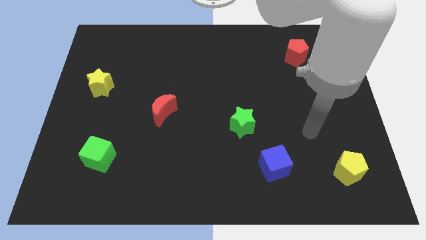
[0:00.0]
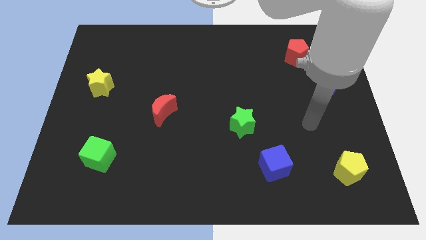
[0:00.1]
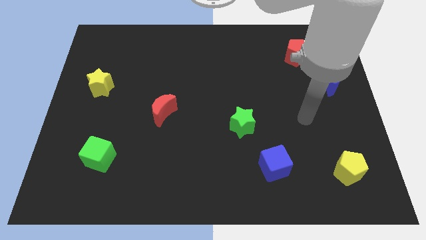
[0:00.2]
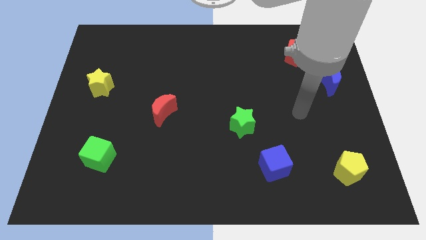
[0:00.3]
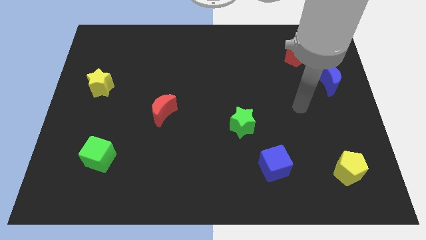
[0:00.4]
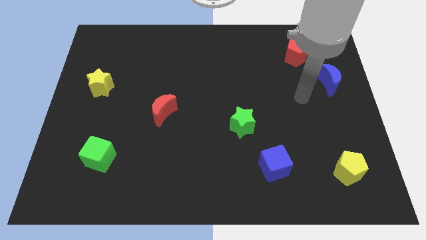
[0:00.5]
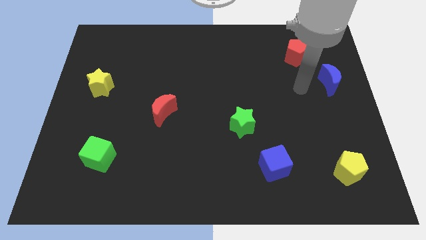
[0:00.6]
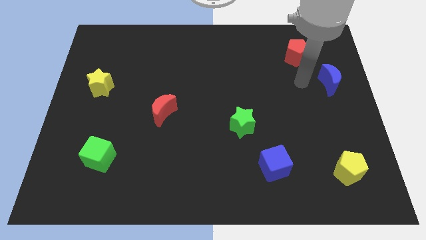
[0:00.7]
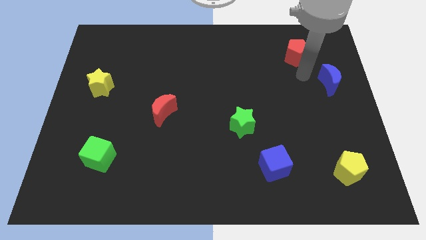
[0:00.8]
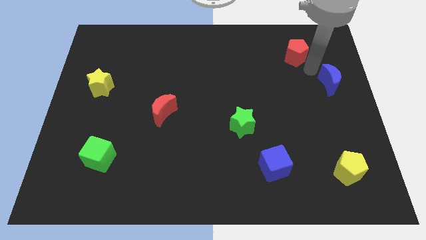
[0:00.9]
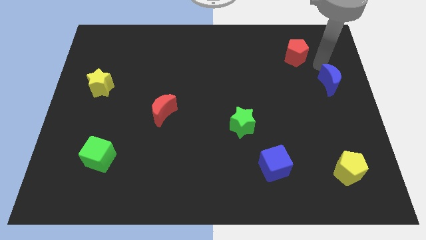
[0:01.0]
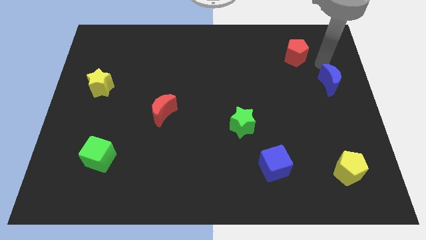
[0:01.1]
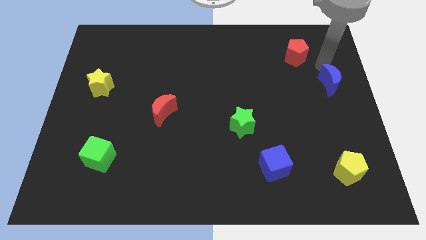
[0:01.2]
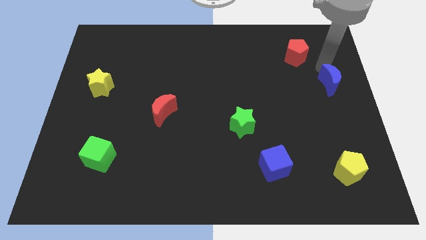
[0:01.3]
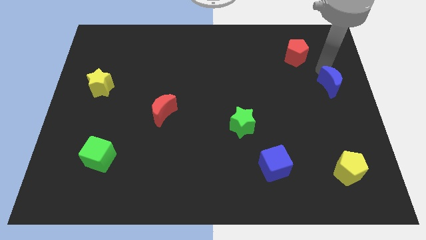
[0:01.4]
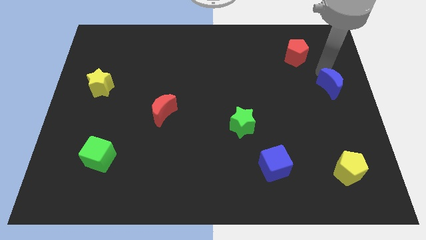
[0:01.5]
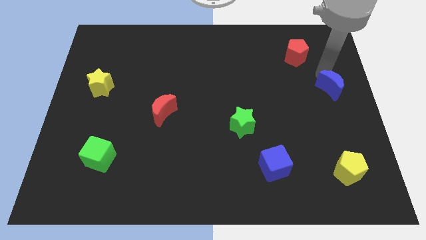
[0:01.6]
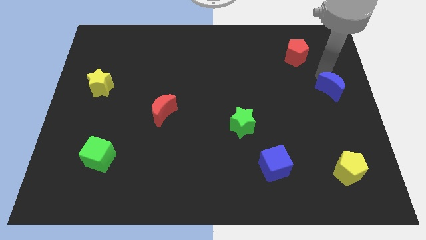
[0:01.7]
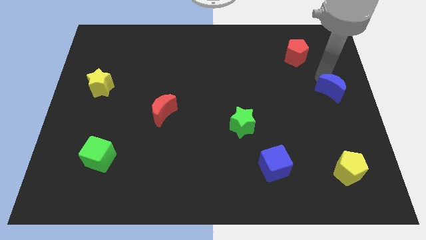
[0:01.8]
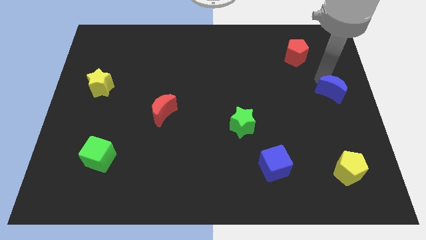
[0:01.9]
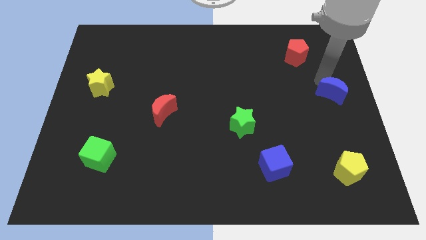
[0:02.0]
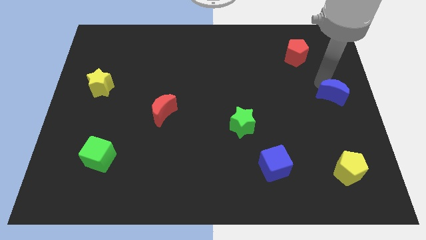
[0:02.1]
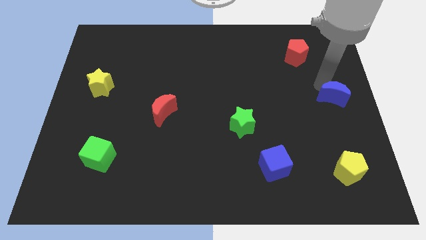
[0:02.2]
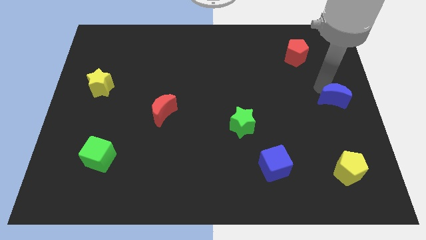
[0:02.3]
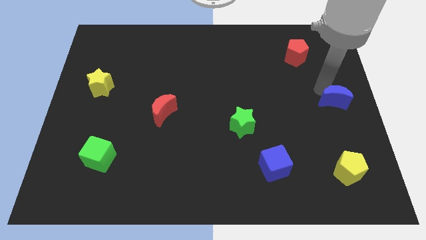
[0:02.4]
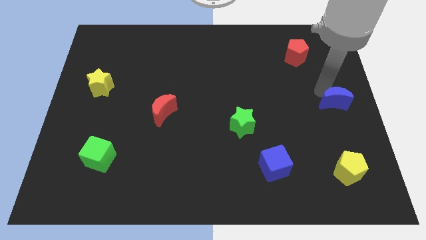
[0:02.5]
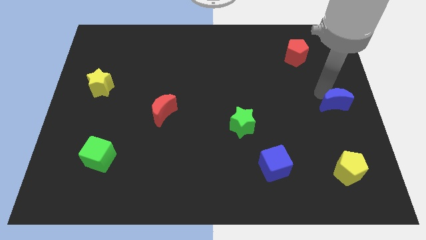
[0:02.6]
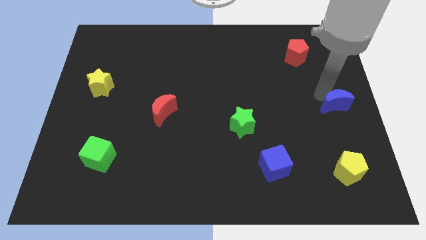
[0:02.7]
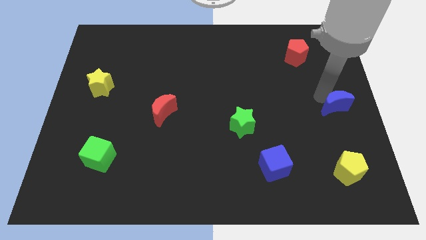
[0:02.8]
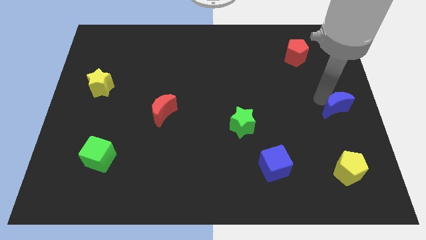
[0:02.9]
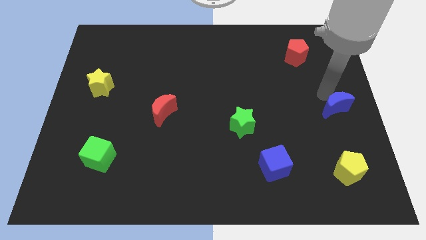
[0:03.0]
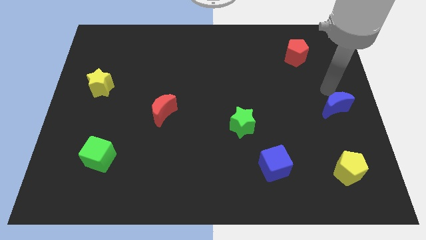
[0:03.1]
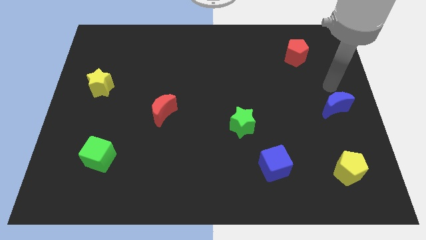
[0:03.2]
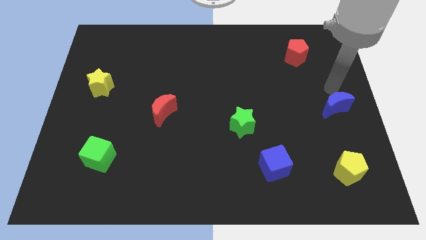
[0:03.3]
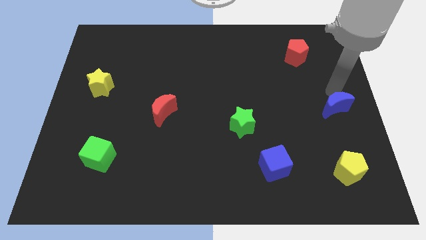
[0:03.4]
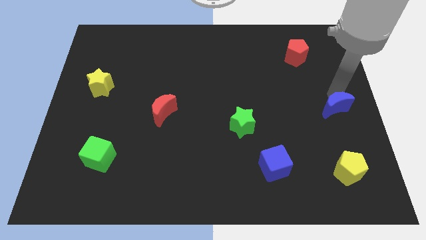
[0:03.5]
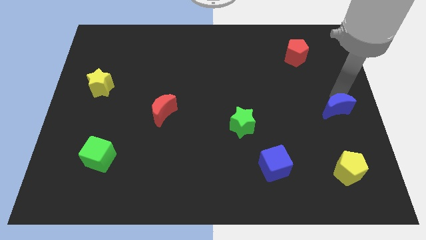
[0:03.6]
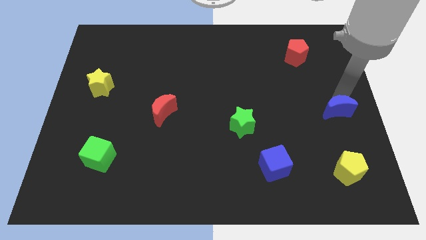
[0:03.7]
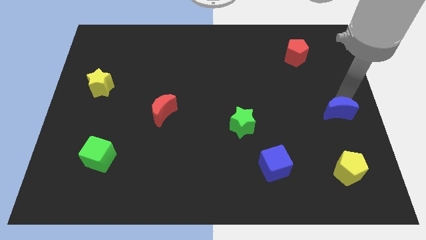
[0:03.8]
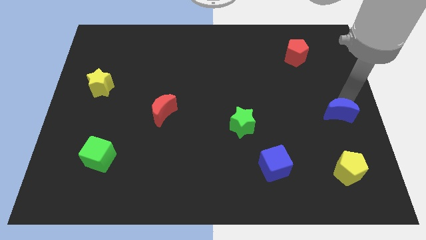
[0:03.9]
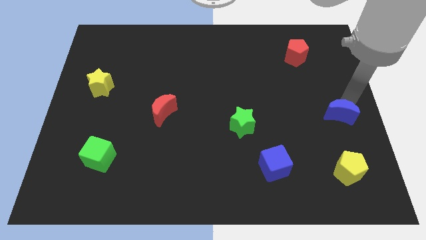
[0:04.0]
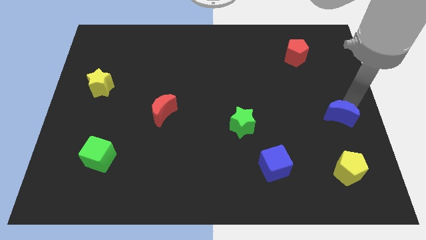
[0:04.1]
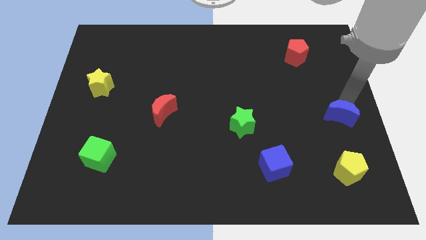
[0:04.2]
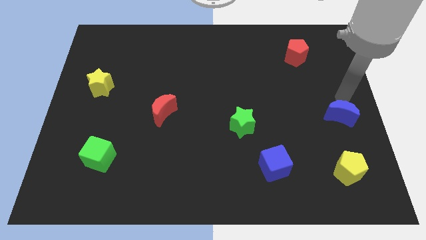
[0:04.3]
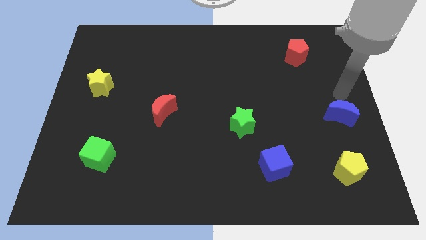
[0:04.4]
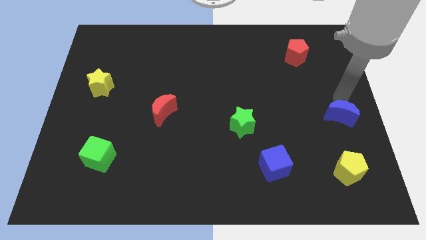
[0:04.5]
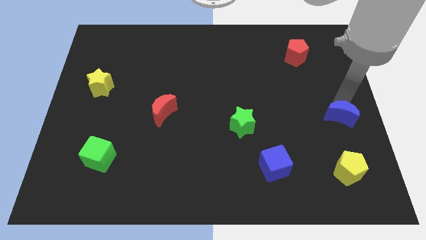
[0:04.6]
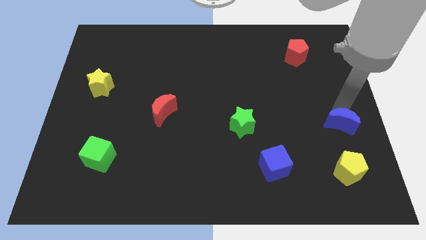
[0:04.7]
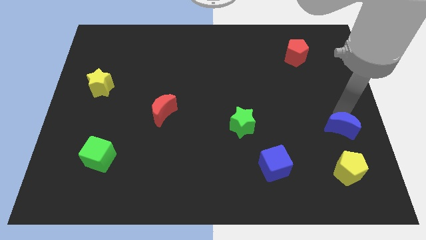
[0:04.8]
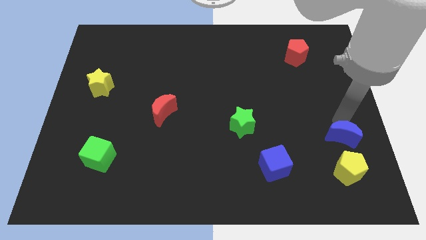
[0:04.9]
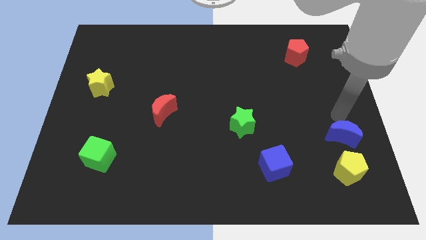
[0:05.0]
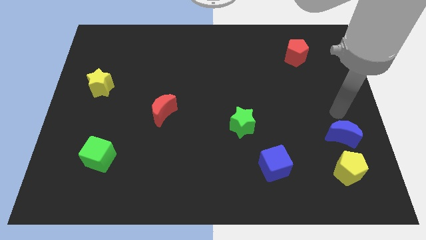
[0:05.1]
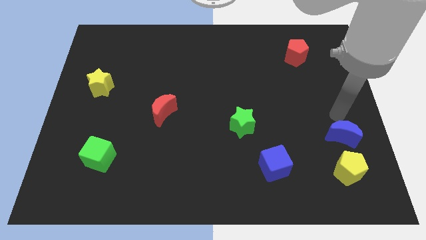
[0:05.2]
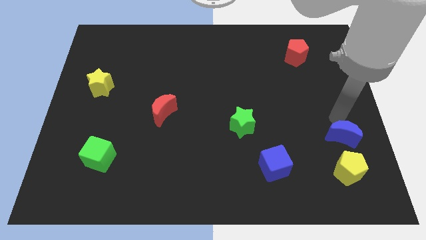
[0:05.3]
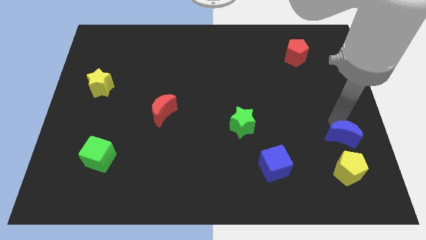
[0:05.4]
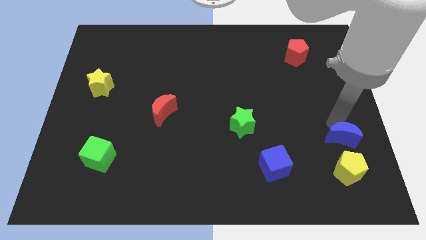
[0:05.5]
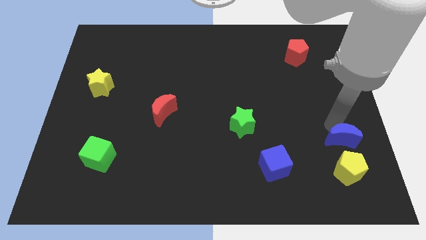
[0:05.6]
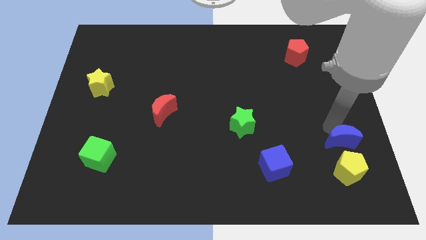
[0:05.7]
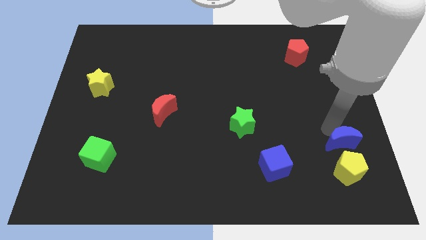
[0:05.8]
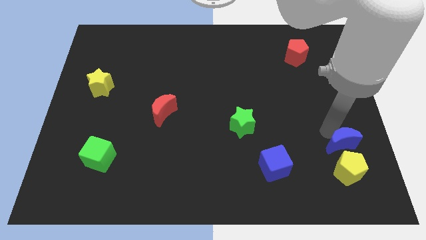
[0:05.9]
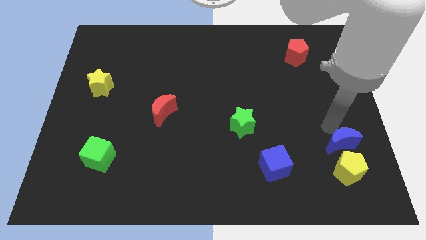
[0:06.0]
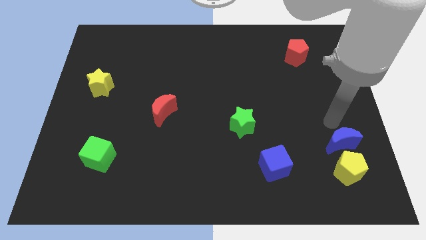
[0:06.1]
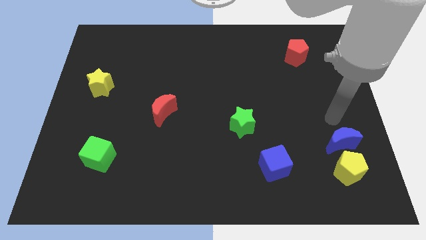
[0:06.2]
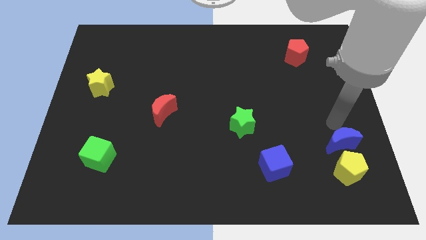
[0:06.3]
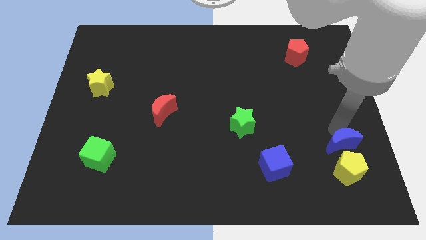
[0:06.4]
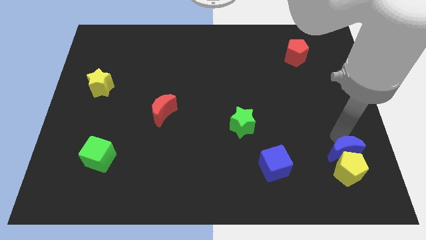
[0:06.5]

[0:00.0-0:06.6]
put the blue moon next to the yellow pentagon
